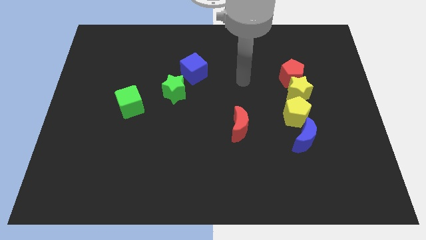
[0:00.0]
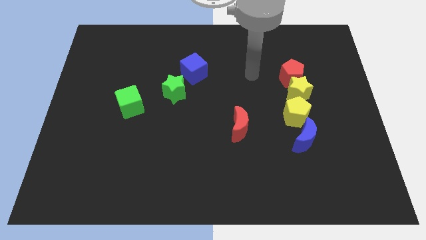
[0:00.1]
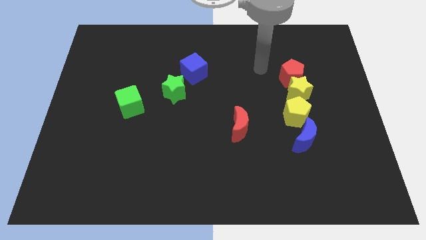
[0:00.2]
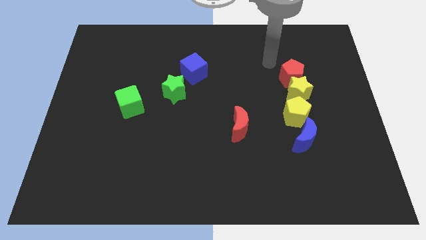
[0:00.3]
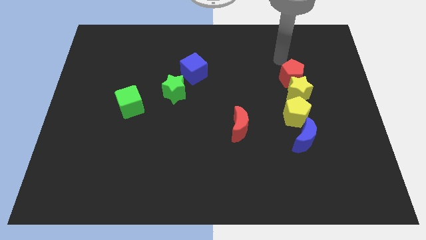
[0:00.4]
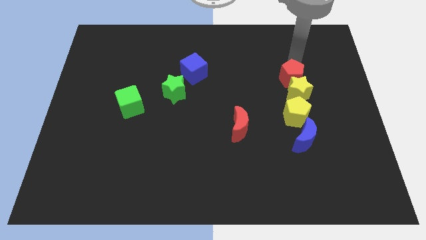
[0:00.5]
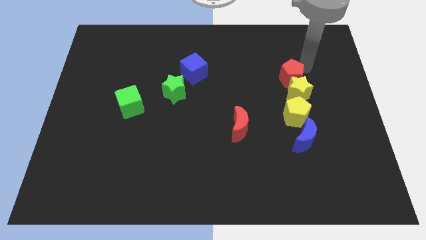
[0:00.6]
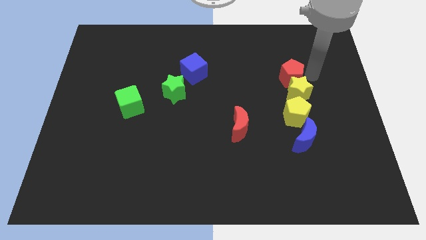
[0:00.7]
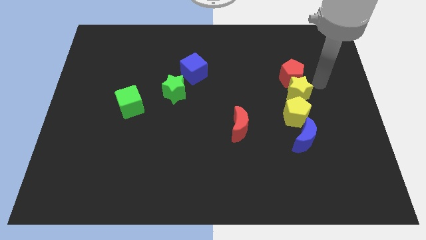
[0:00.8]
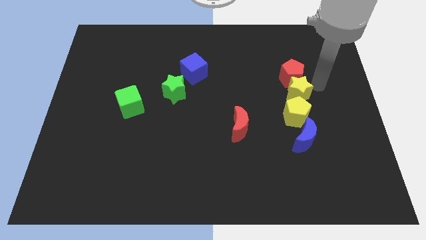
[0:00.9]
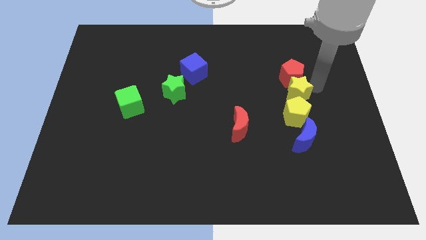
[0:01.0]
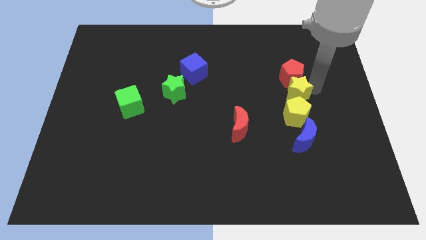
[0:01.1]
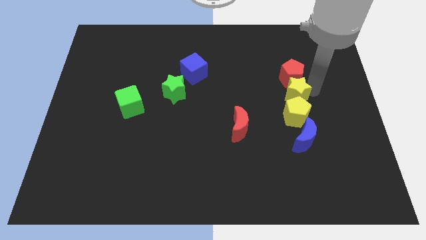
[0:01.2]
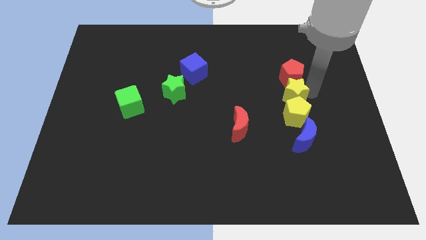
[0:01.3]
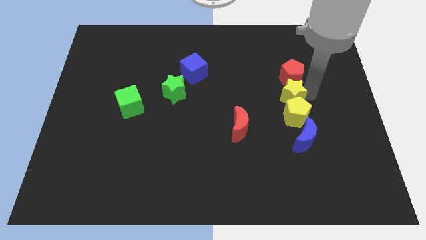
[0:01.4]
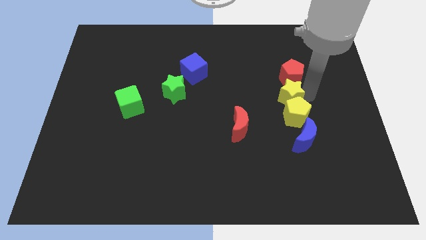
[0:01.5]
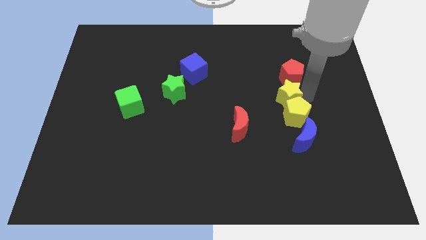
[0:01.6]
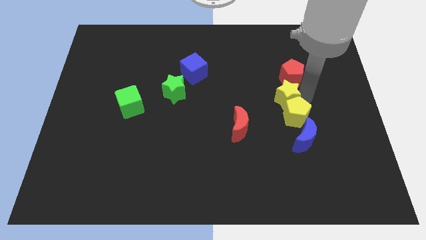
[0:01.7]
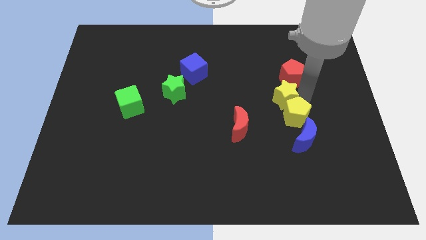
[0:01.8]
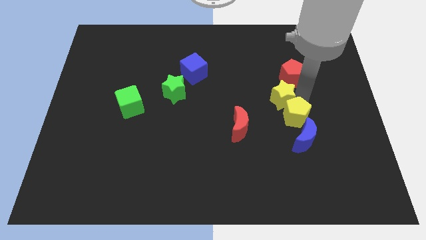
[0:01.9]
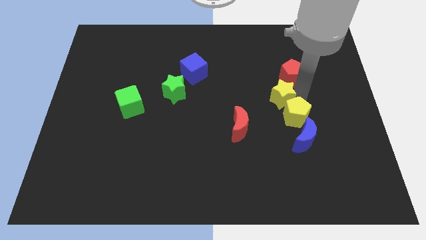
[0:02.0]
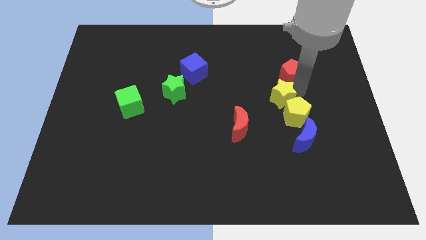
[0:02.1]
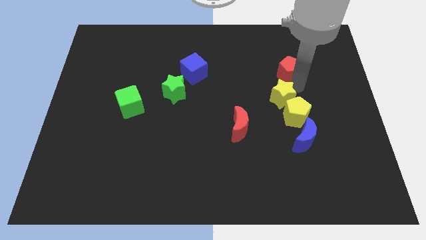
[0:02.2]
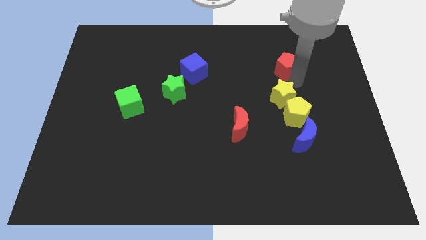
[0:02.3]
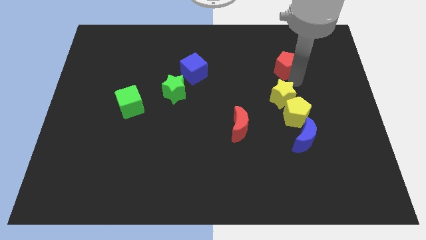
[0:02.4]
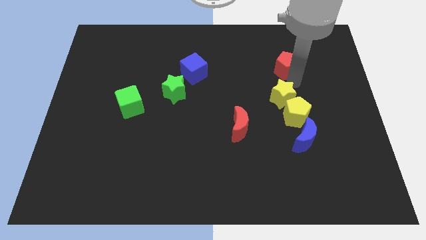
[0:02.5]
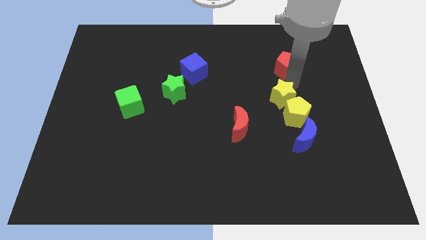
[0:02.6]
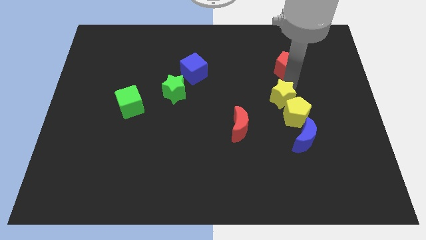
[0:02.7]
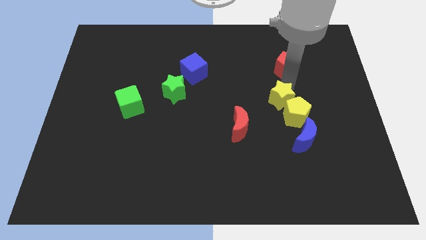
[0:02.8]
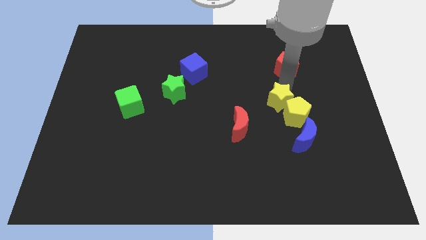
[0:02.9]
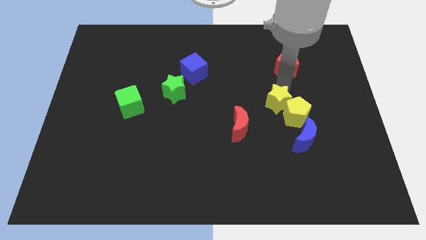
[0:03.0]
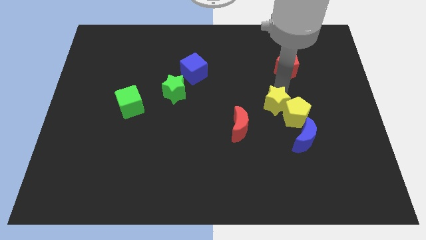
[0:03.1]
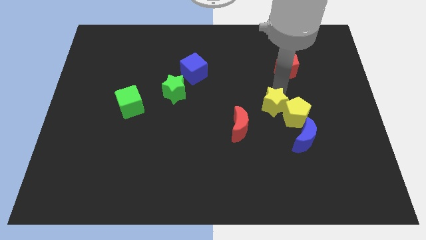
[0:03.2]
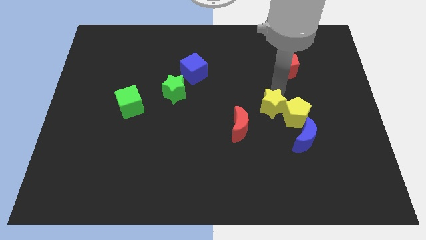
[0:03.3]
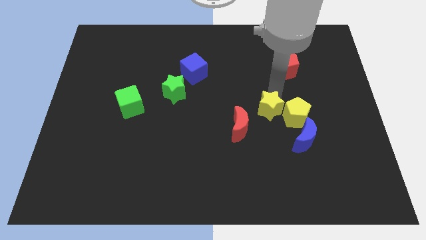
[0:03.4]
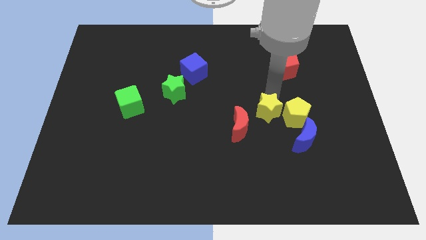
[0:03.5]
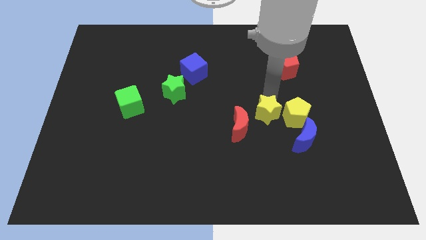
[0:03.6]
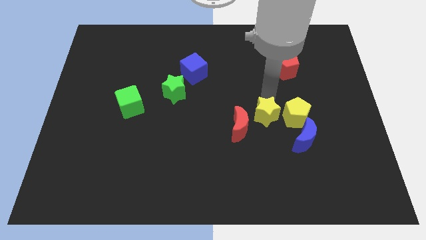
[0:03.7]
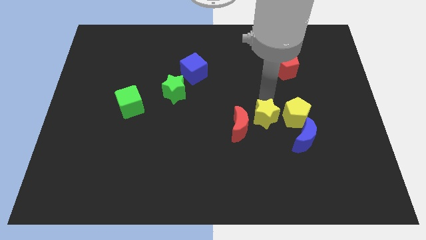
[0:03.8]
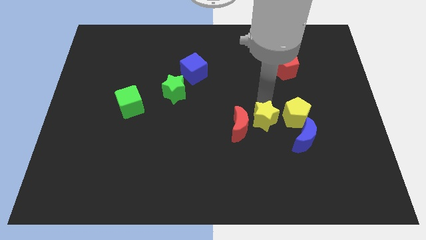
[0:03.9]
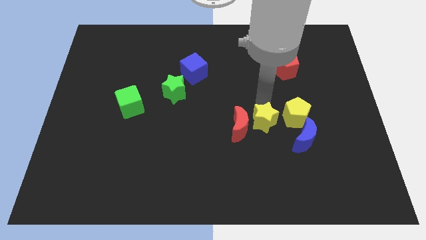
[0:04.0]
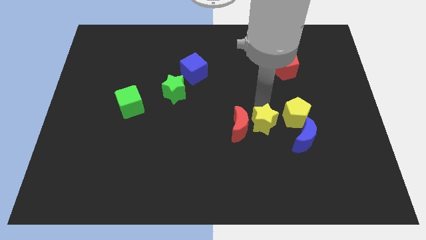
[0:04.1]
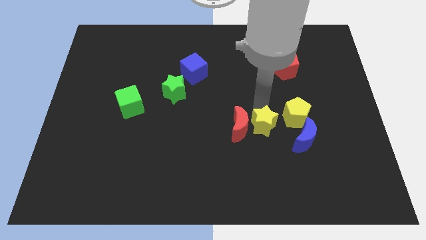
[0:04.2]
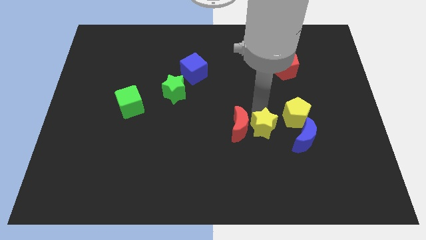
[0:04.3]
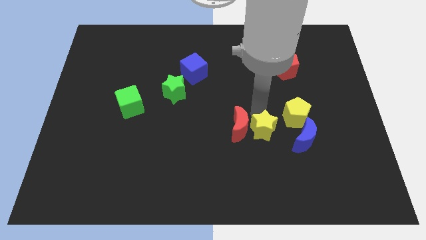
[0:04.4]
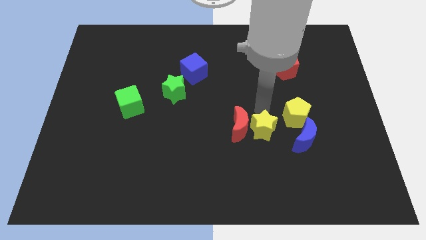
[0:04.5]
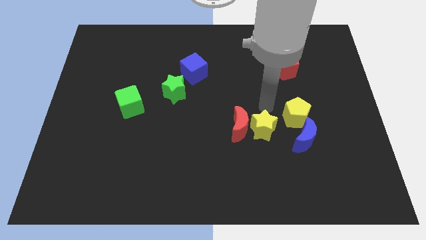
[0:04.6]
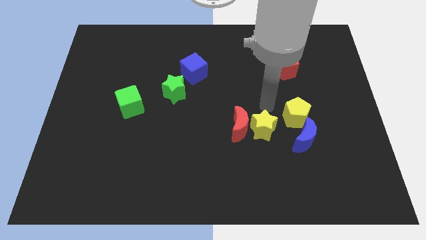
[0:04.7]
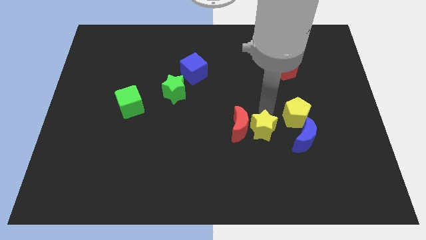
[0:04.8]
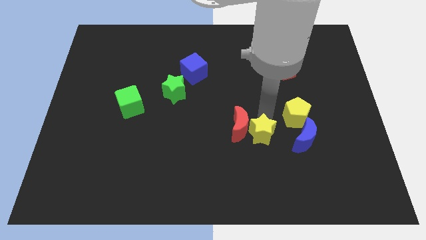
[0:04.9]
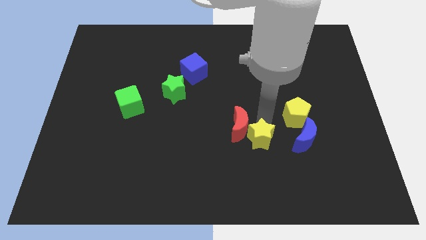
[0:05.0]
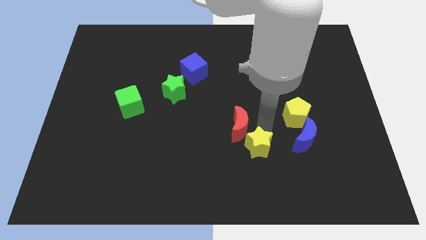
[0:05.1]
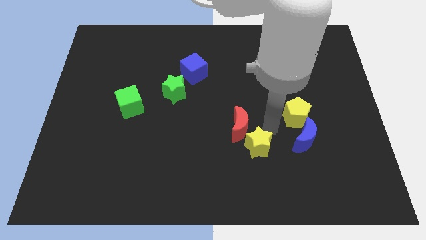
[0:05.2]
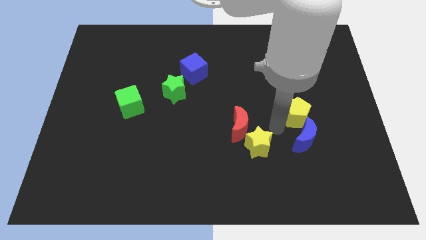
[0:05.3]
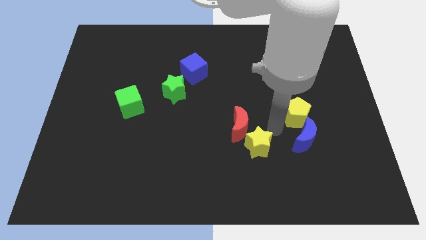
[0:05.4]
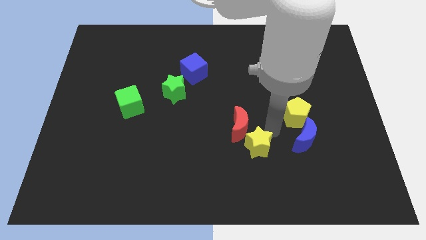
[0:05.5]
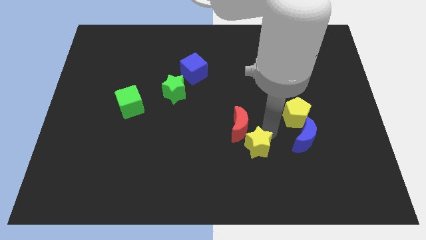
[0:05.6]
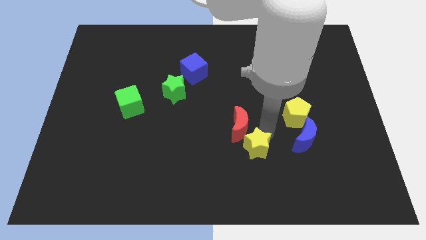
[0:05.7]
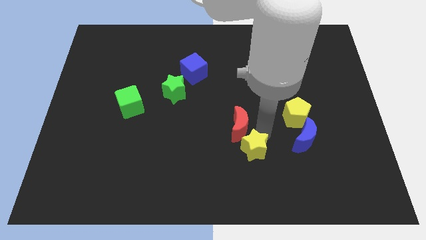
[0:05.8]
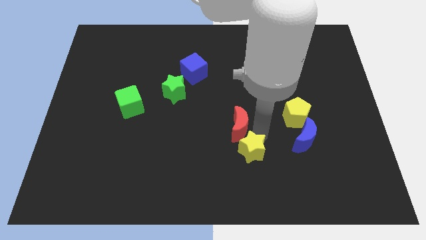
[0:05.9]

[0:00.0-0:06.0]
push the yellow star down and to the left diagonally

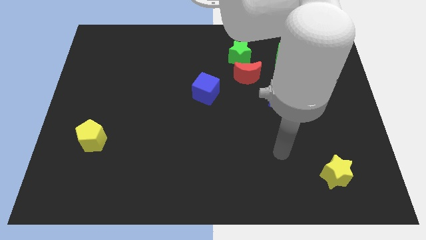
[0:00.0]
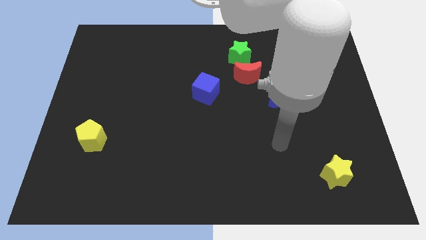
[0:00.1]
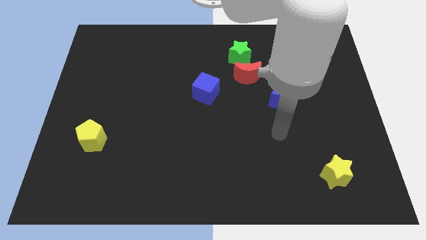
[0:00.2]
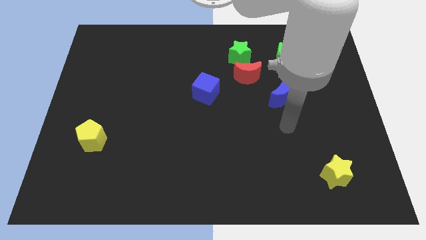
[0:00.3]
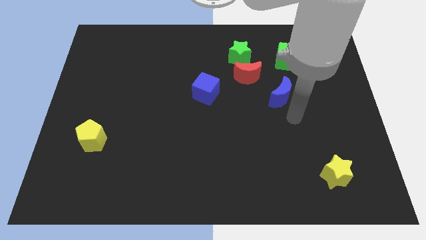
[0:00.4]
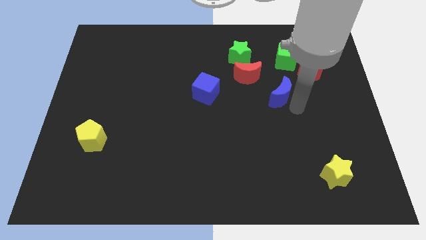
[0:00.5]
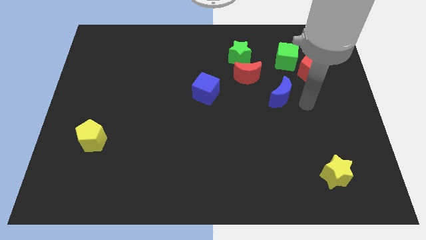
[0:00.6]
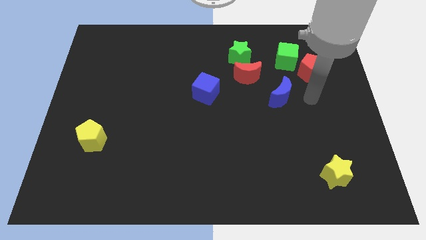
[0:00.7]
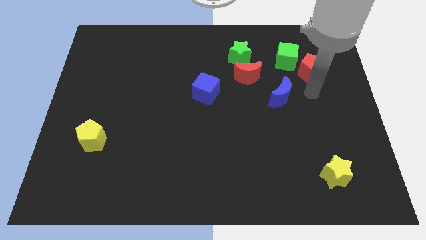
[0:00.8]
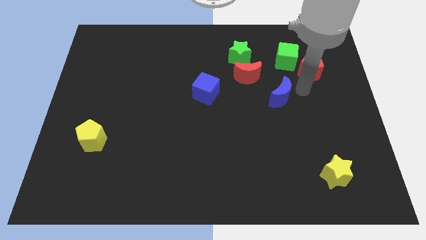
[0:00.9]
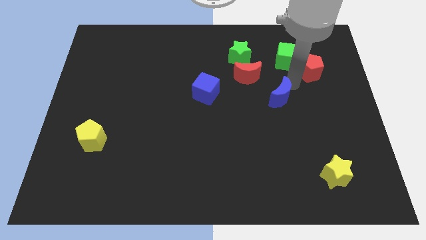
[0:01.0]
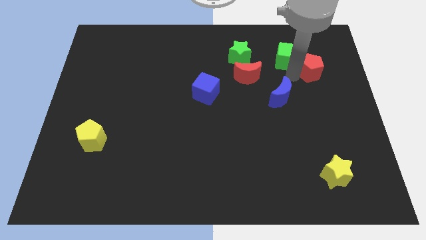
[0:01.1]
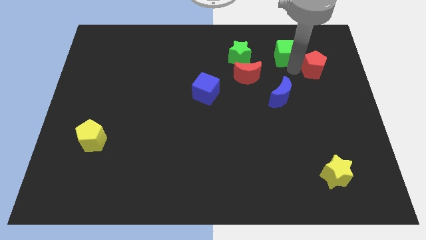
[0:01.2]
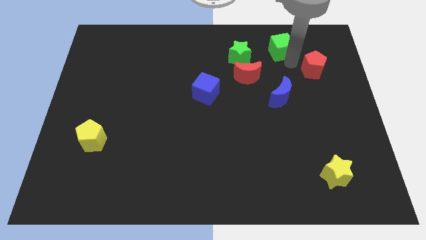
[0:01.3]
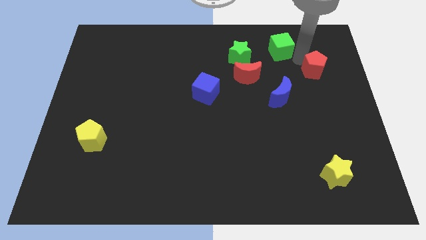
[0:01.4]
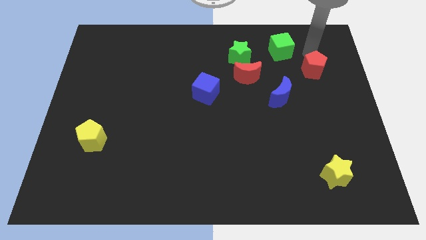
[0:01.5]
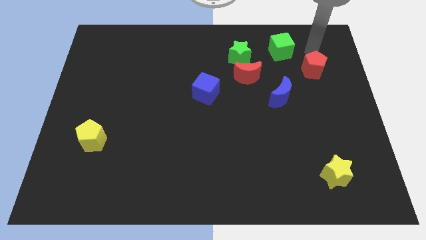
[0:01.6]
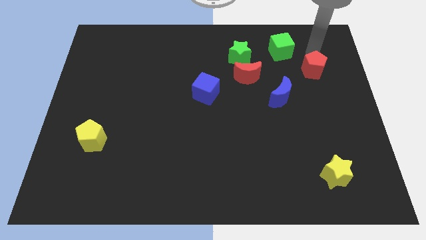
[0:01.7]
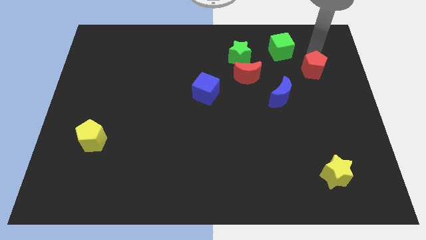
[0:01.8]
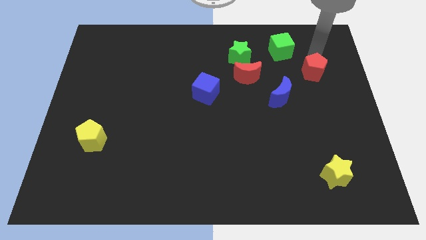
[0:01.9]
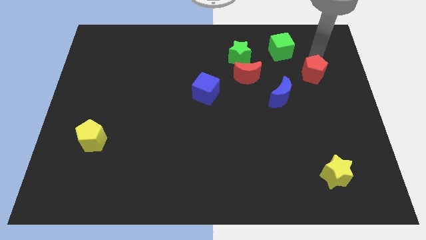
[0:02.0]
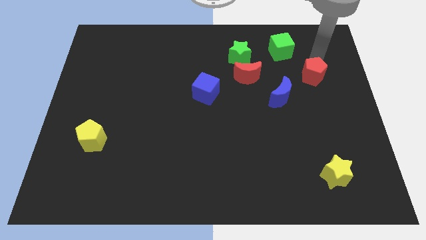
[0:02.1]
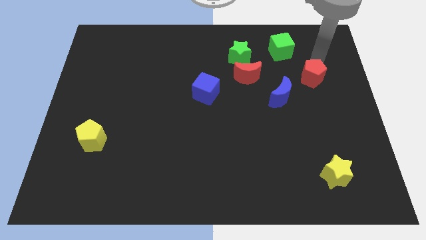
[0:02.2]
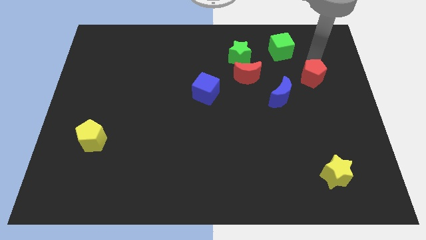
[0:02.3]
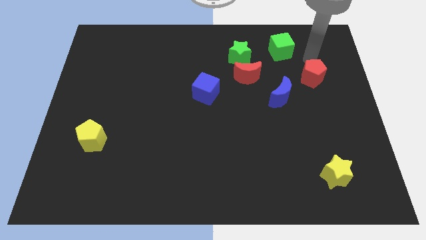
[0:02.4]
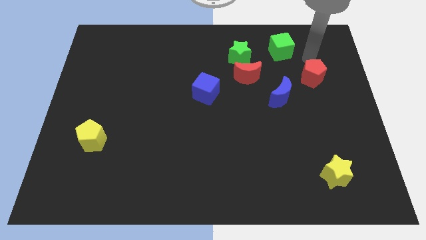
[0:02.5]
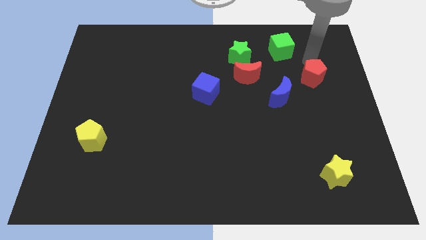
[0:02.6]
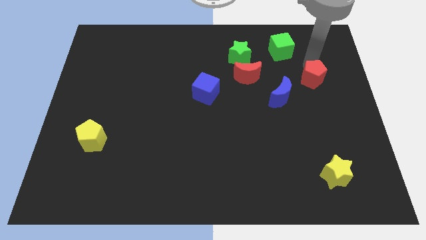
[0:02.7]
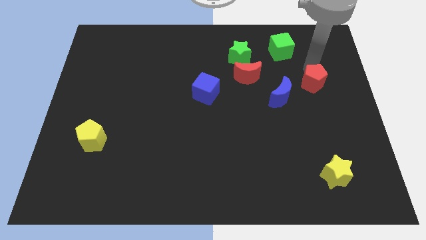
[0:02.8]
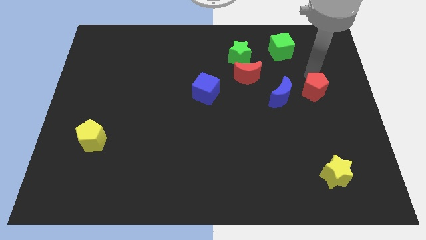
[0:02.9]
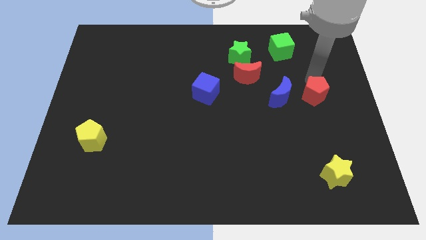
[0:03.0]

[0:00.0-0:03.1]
move the red pentagon a little down
